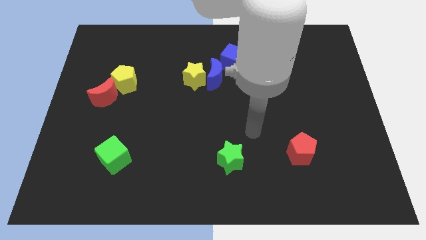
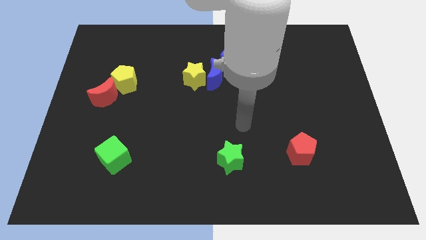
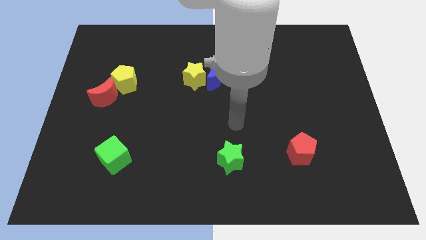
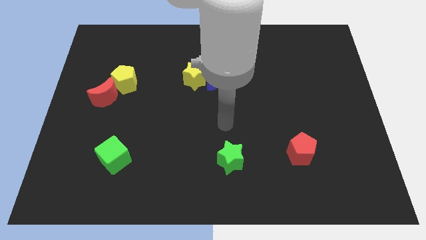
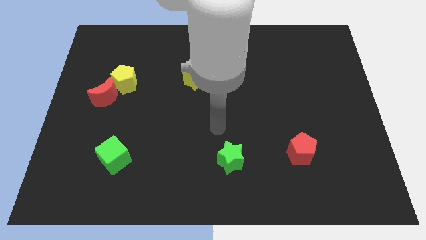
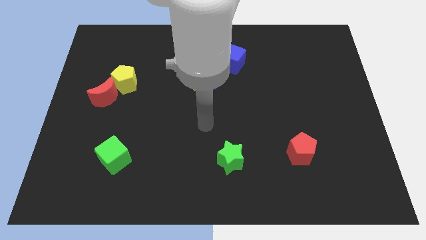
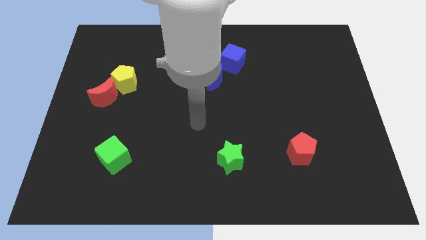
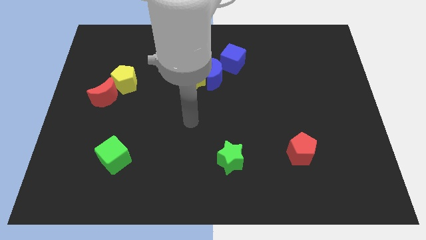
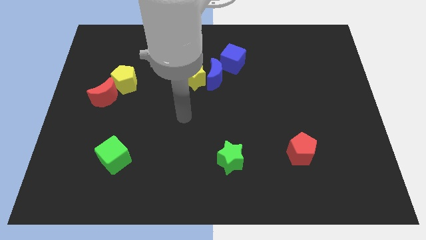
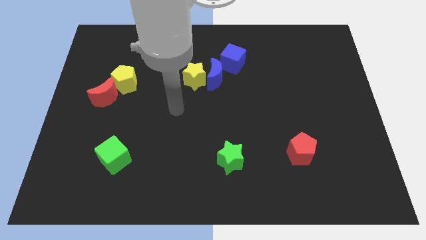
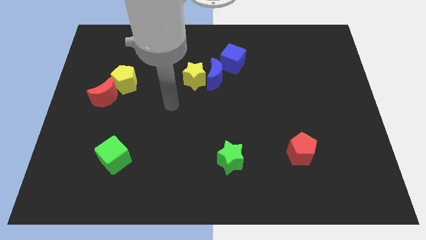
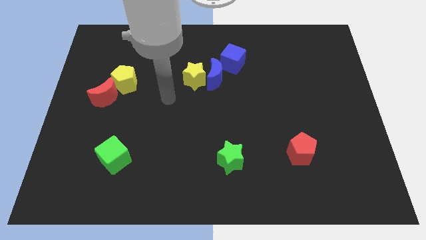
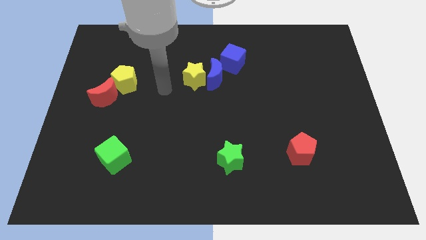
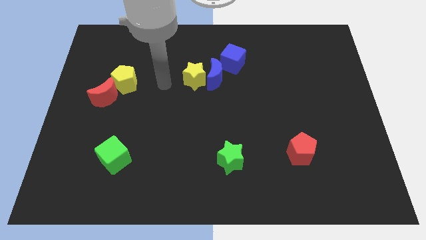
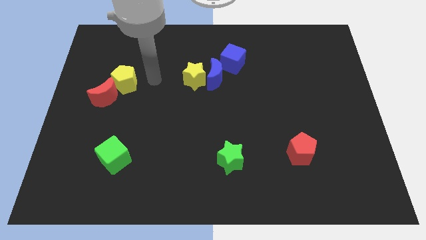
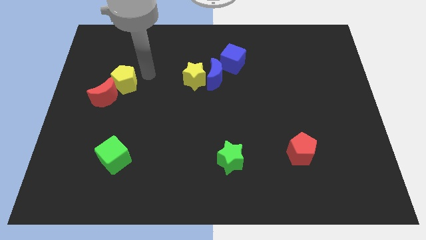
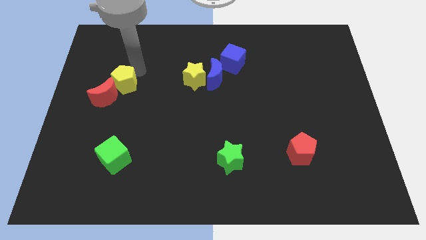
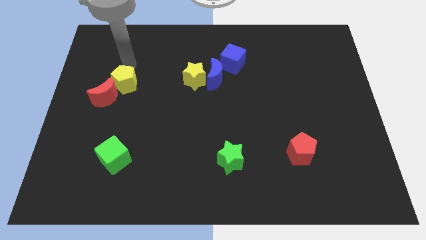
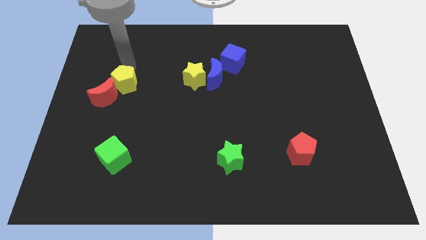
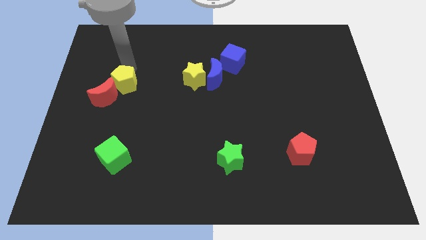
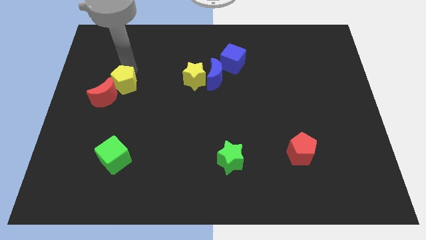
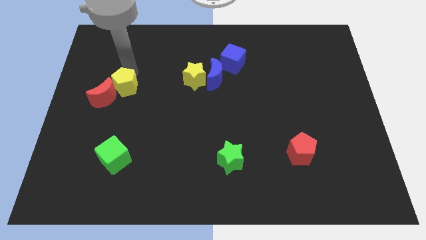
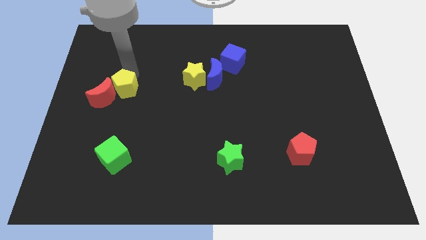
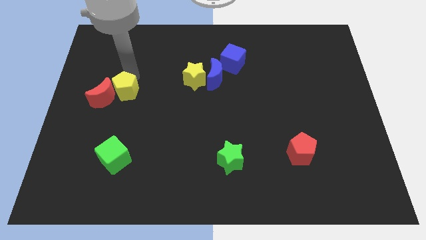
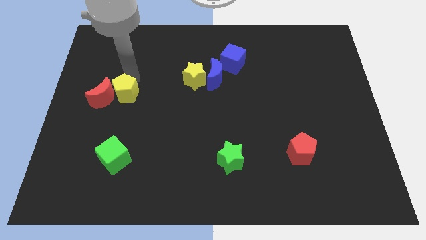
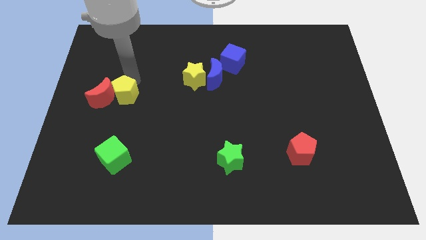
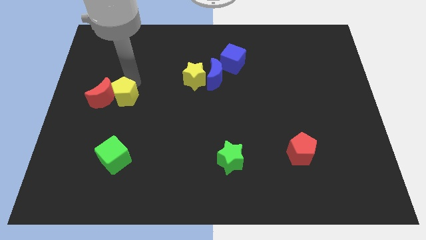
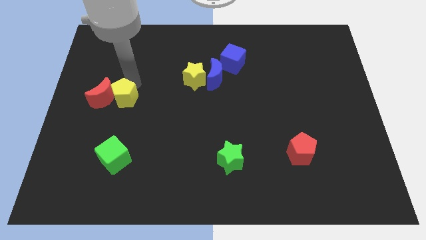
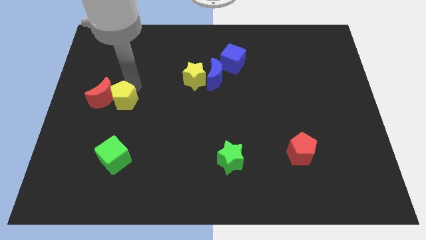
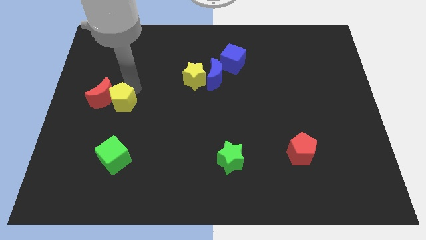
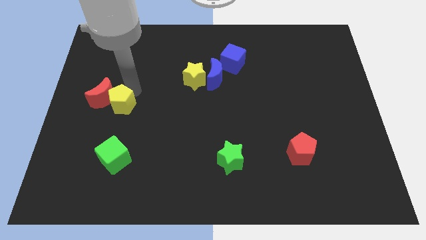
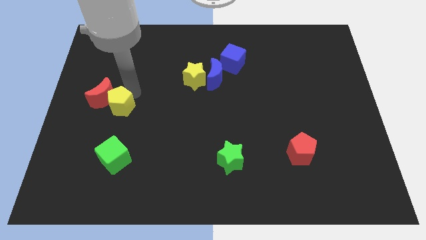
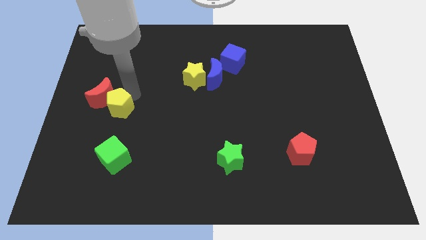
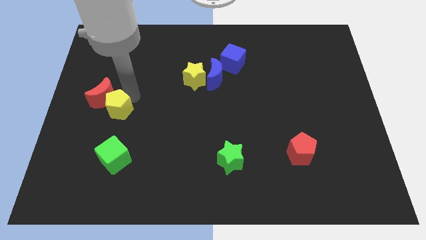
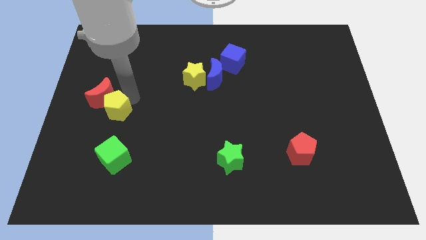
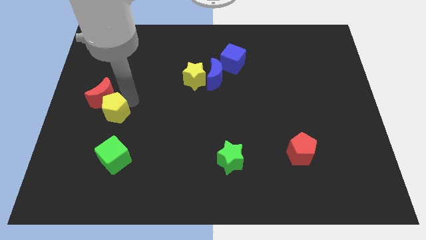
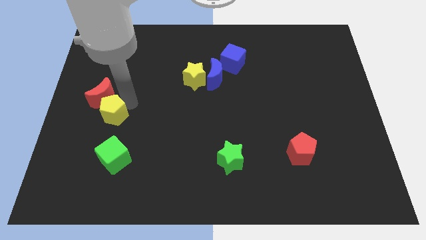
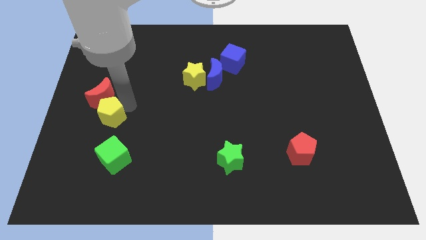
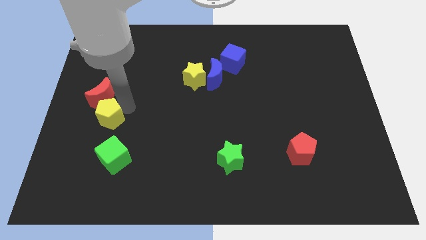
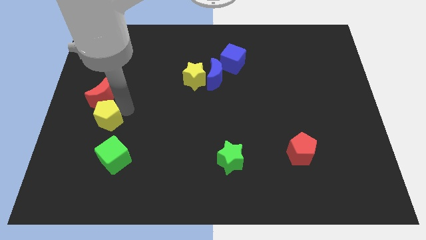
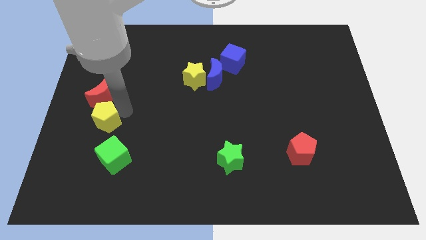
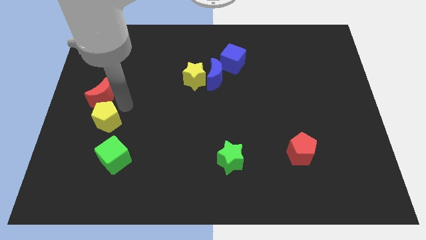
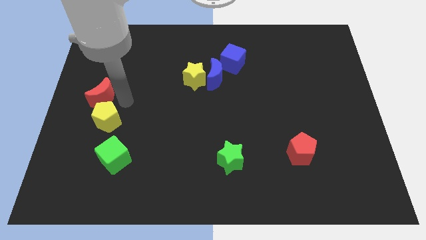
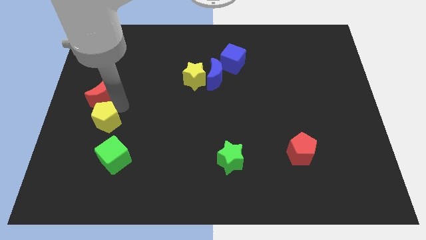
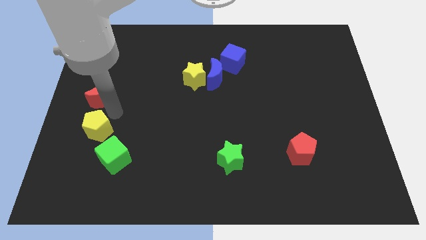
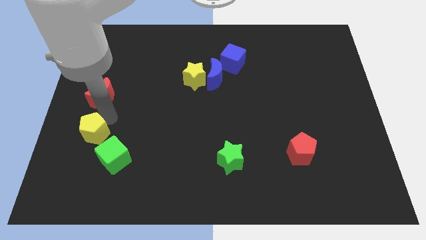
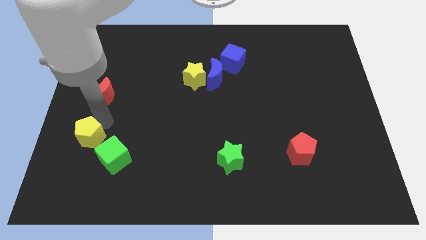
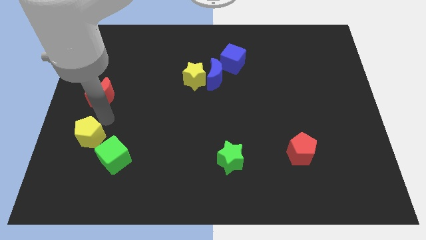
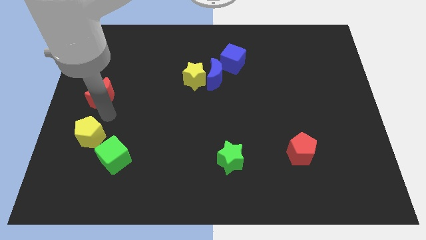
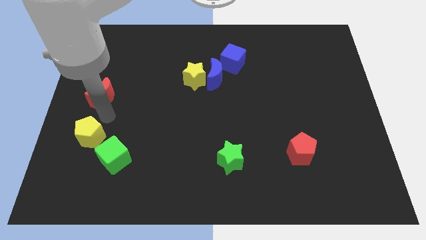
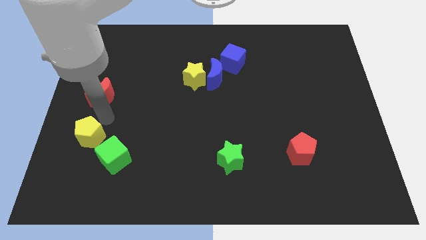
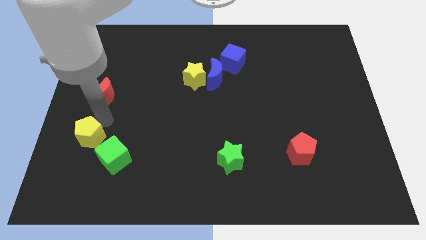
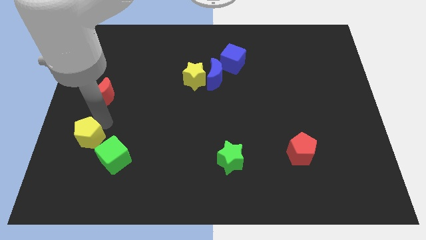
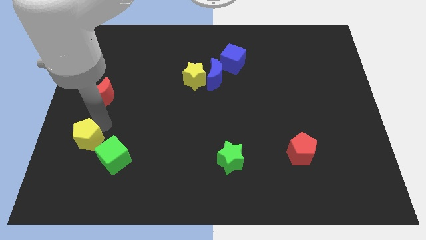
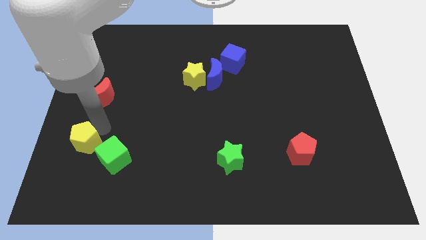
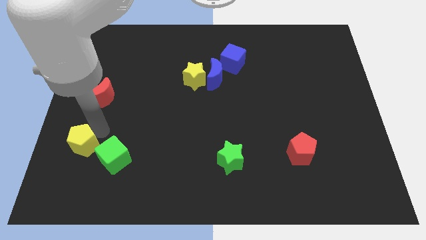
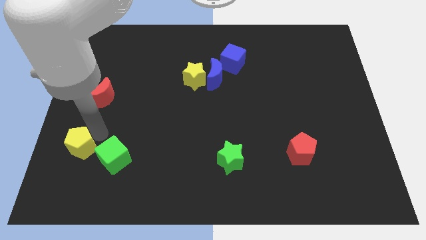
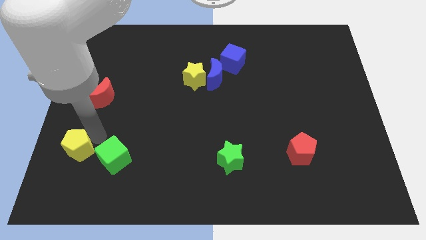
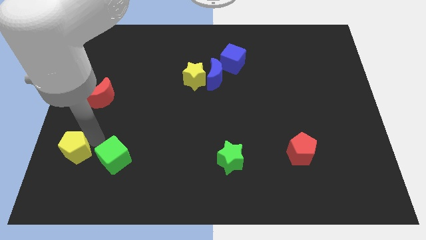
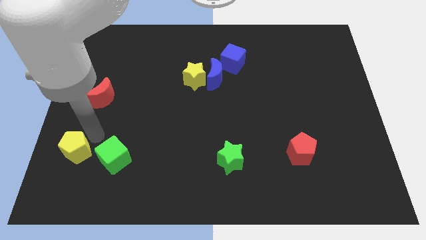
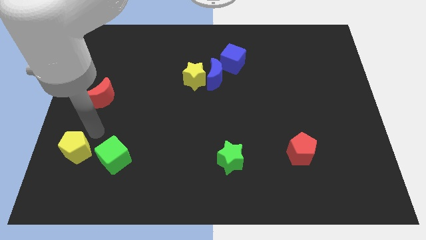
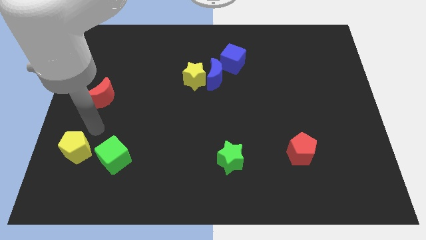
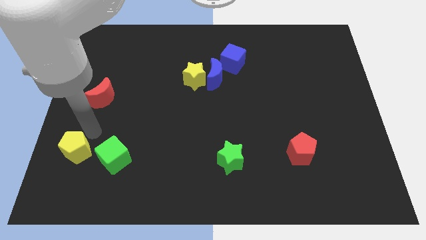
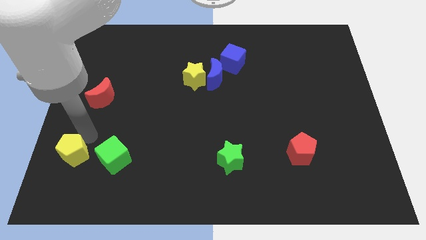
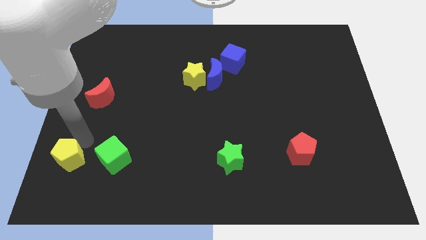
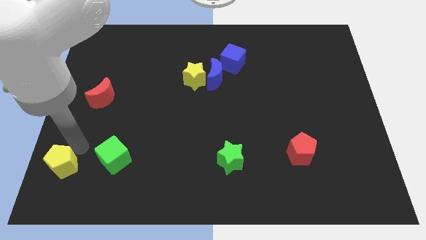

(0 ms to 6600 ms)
slide the yellow pentagon to the bottom left of the board
